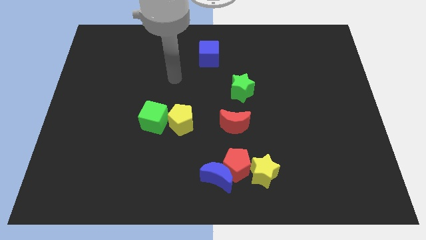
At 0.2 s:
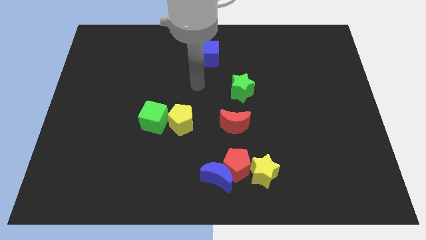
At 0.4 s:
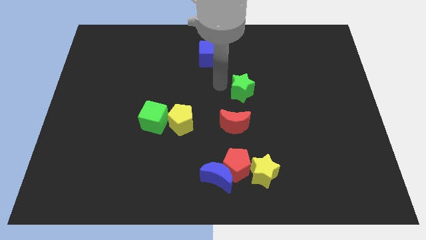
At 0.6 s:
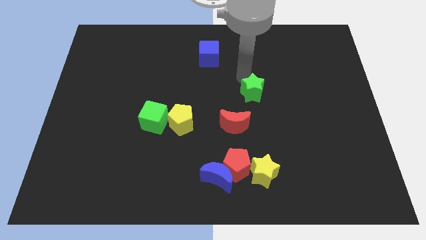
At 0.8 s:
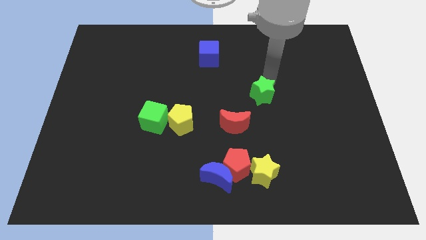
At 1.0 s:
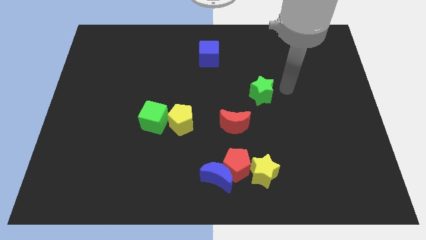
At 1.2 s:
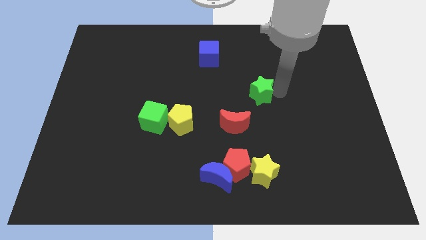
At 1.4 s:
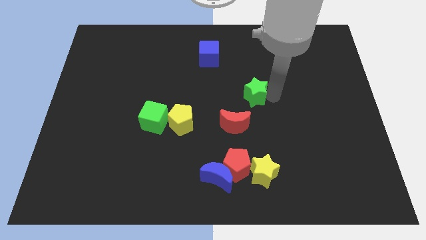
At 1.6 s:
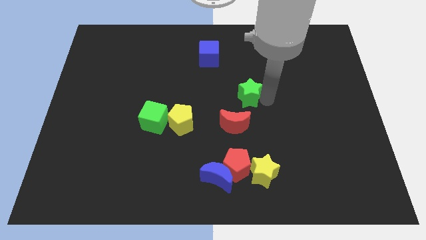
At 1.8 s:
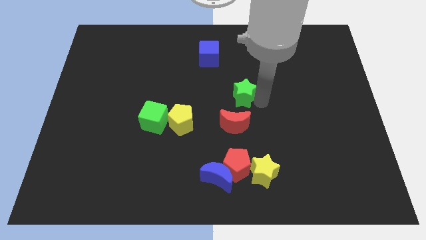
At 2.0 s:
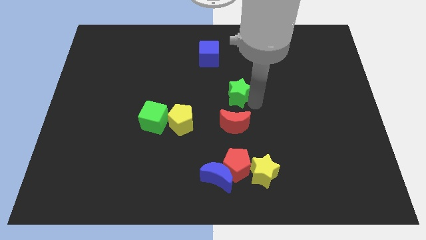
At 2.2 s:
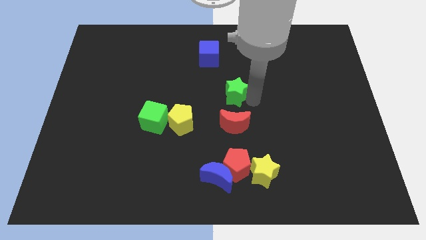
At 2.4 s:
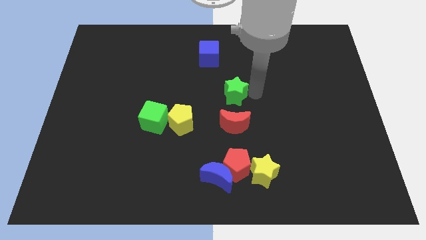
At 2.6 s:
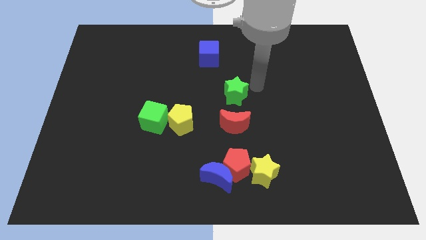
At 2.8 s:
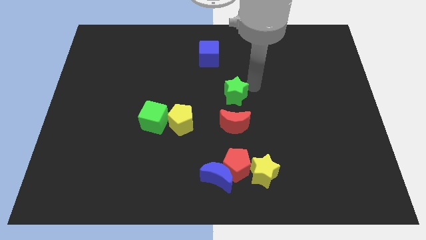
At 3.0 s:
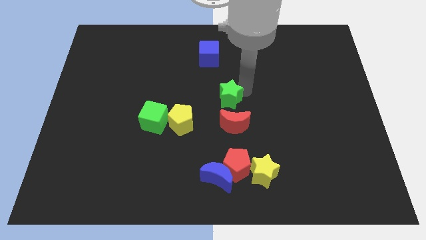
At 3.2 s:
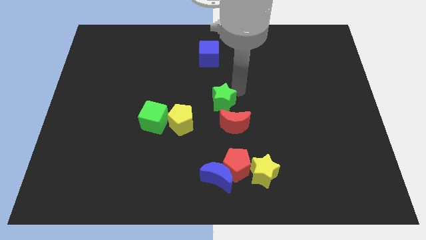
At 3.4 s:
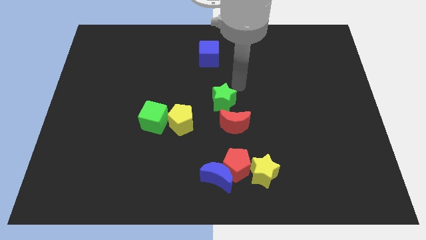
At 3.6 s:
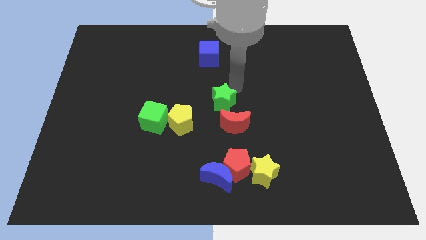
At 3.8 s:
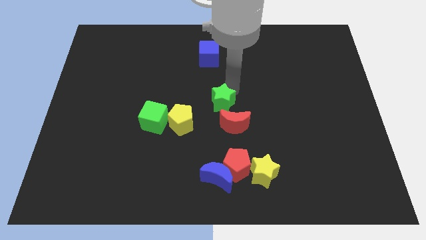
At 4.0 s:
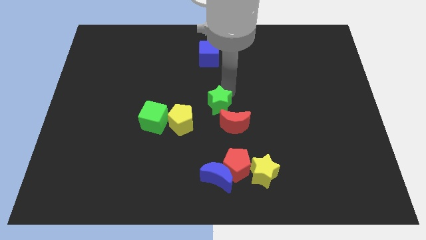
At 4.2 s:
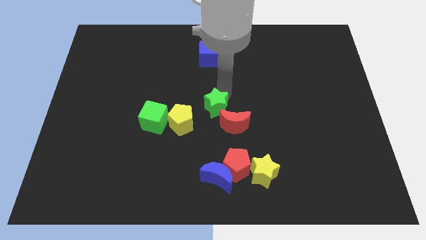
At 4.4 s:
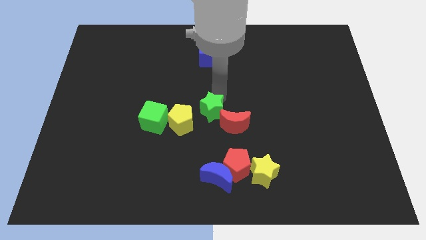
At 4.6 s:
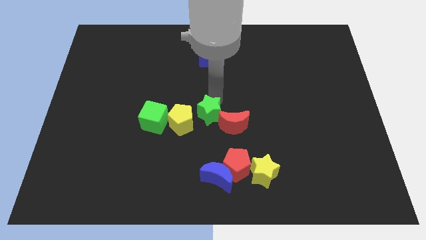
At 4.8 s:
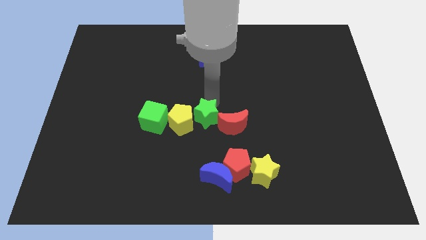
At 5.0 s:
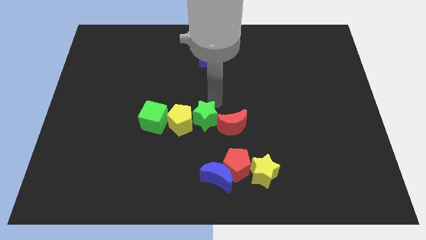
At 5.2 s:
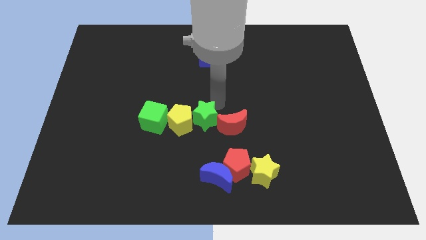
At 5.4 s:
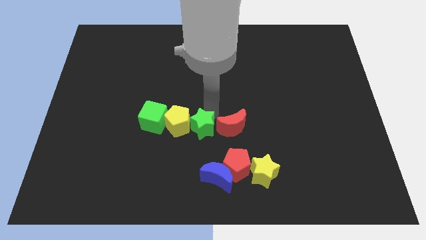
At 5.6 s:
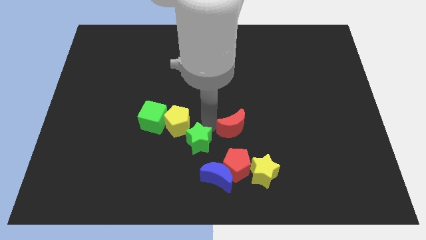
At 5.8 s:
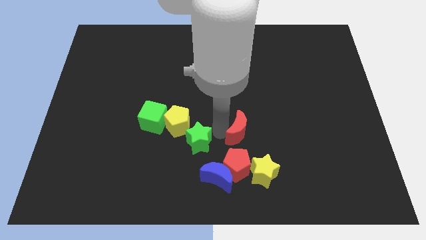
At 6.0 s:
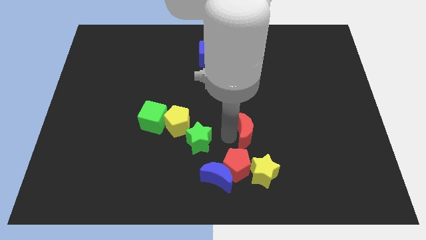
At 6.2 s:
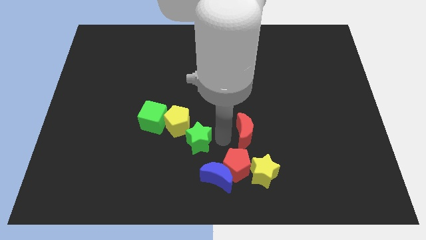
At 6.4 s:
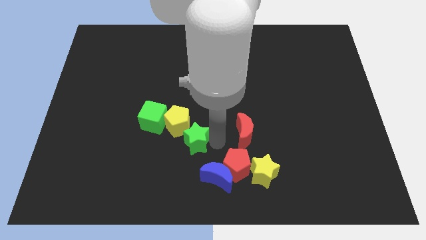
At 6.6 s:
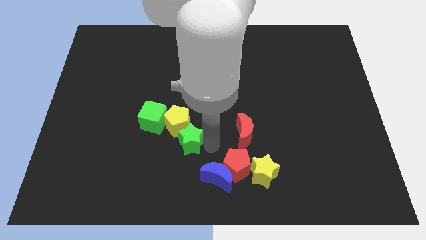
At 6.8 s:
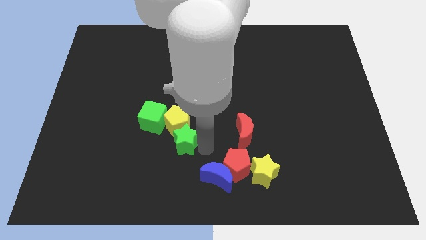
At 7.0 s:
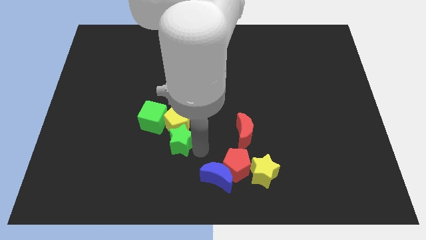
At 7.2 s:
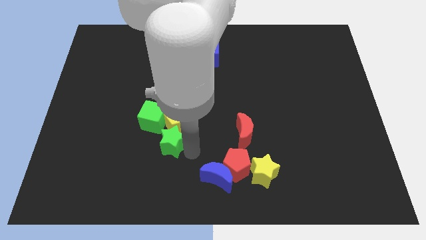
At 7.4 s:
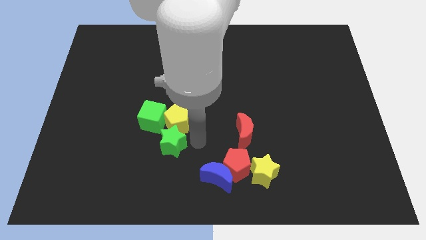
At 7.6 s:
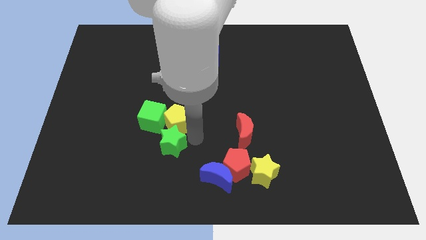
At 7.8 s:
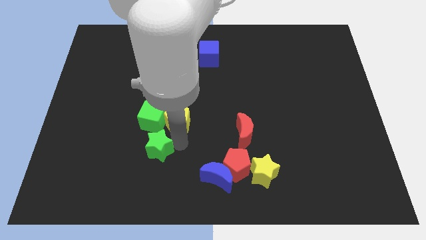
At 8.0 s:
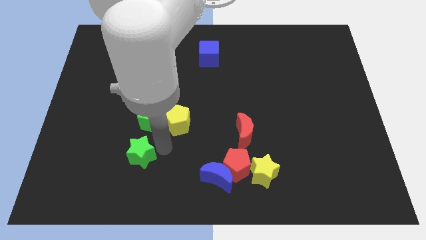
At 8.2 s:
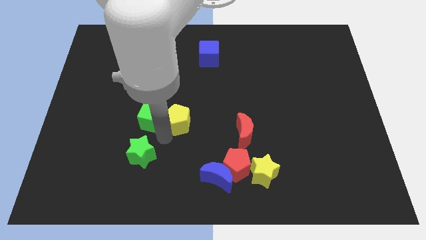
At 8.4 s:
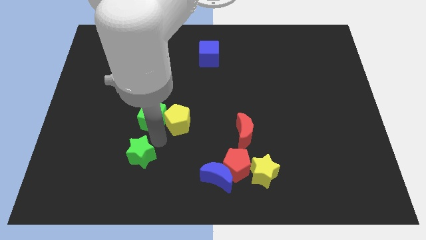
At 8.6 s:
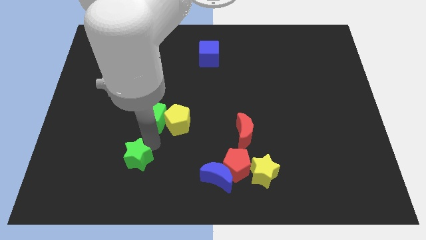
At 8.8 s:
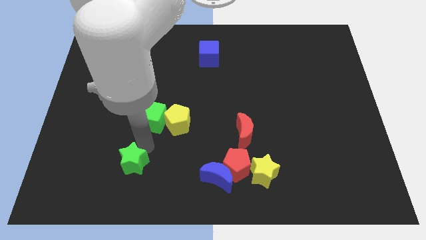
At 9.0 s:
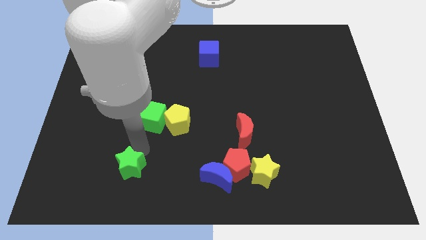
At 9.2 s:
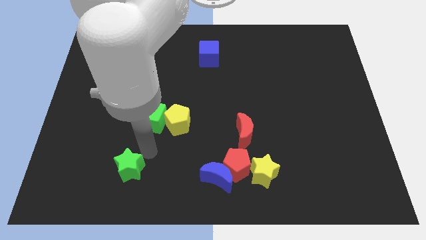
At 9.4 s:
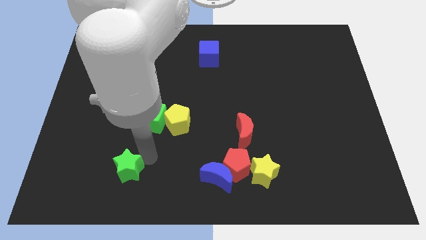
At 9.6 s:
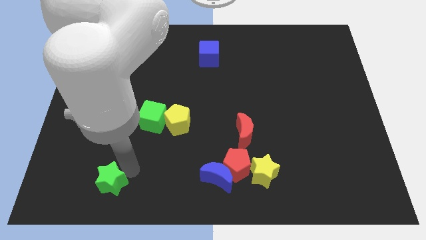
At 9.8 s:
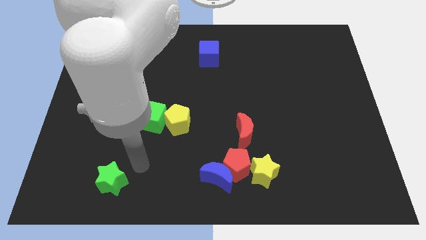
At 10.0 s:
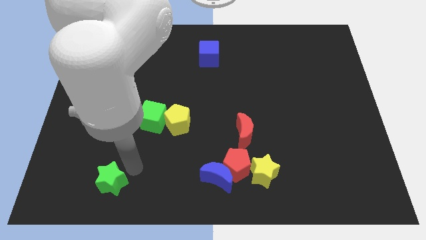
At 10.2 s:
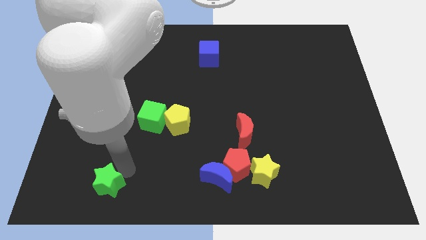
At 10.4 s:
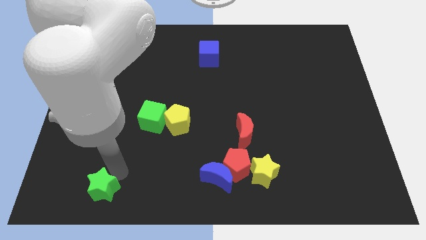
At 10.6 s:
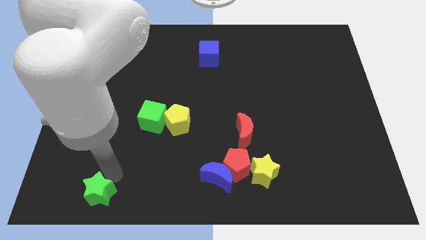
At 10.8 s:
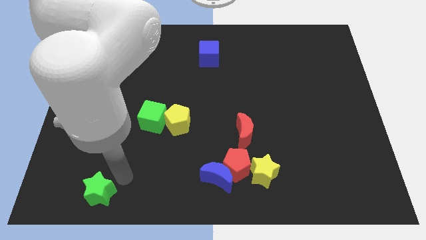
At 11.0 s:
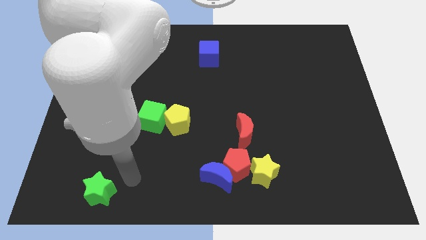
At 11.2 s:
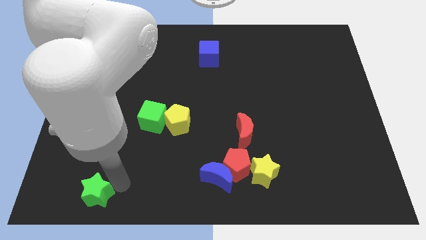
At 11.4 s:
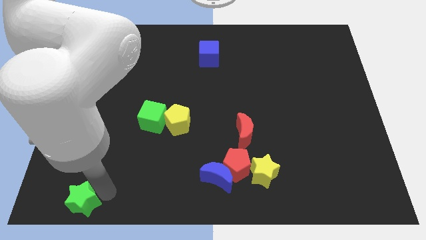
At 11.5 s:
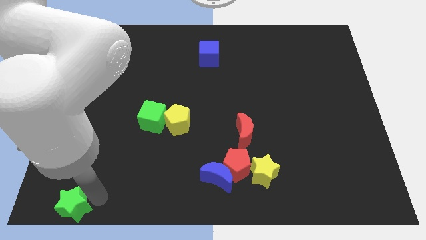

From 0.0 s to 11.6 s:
push the green star to the bottom left corner

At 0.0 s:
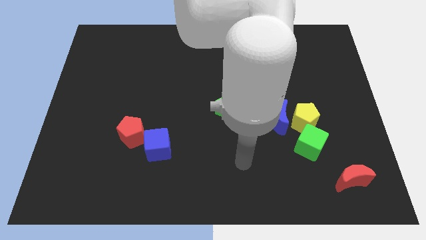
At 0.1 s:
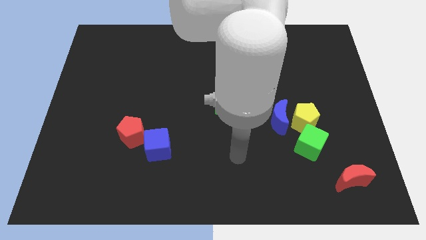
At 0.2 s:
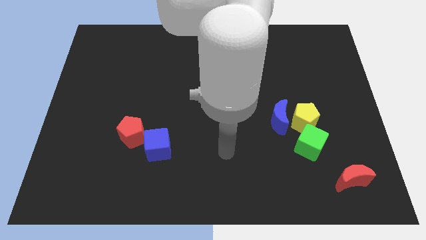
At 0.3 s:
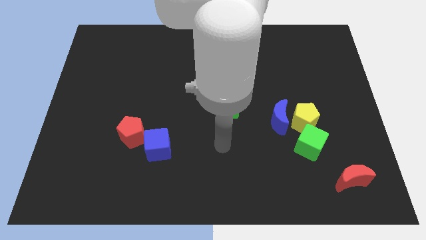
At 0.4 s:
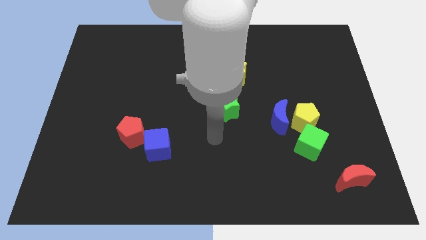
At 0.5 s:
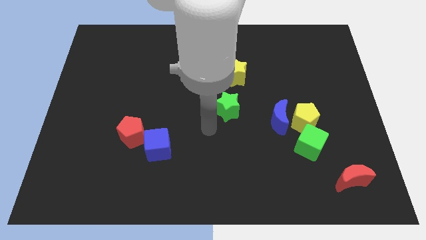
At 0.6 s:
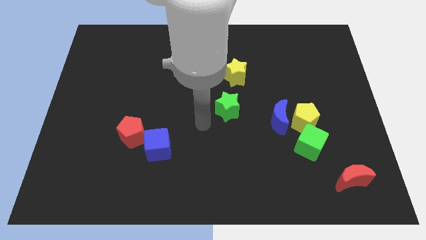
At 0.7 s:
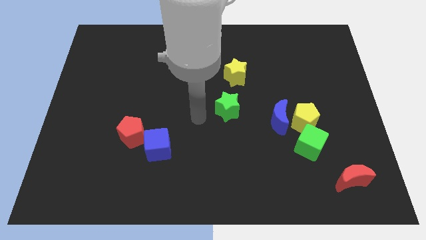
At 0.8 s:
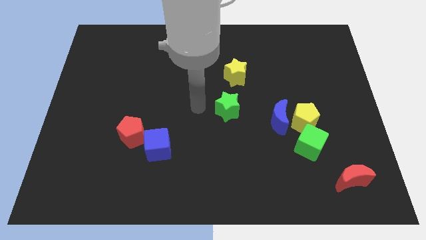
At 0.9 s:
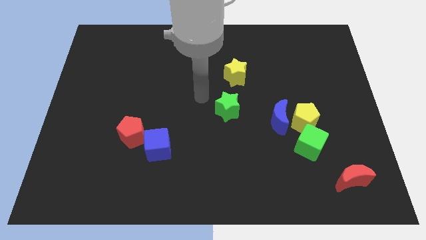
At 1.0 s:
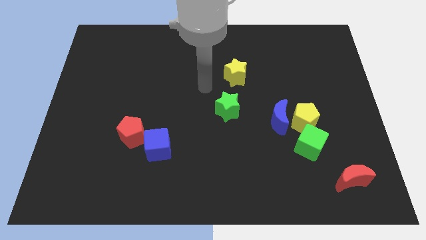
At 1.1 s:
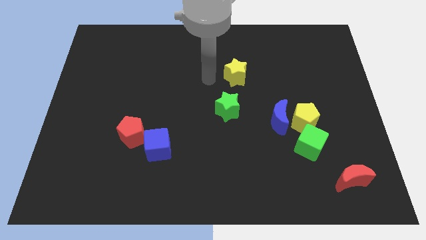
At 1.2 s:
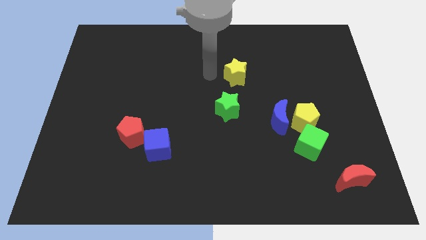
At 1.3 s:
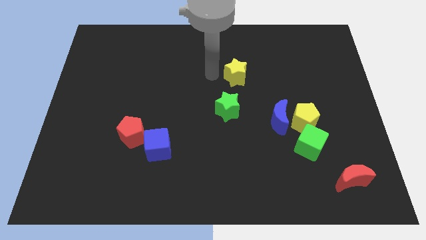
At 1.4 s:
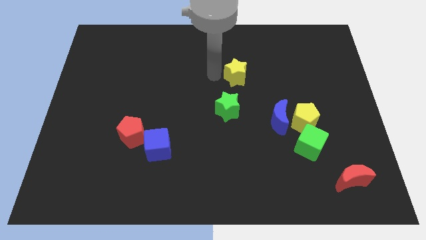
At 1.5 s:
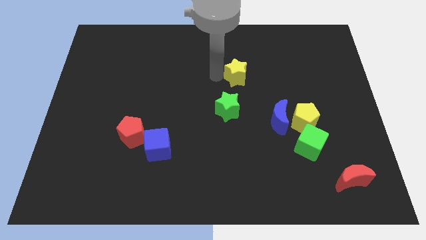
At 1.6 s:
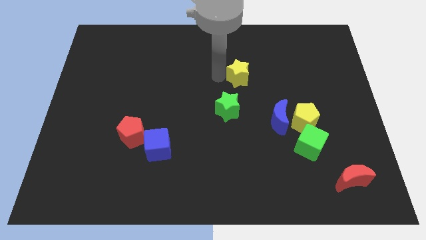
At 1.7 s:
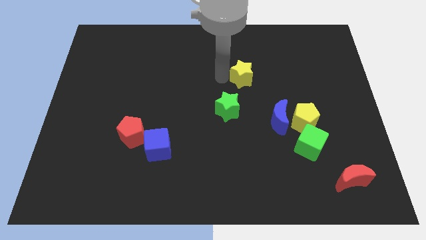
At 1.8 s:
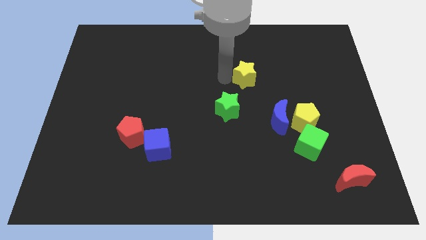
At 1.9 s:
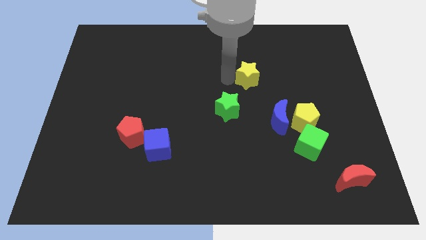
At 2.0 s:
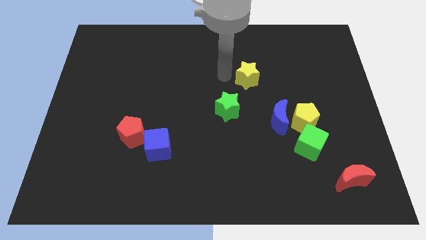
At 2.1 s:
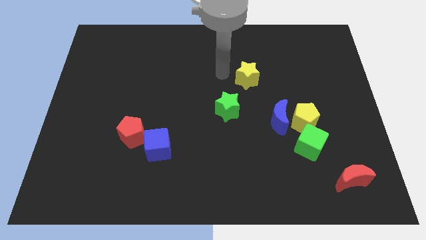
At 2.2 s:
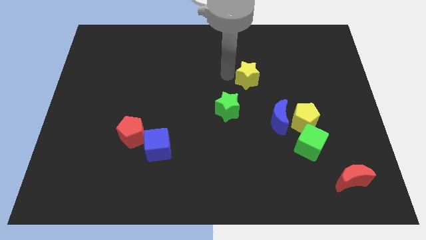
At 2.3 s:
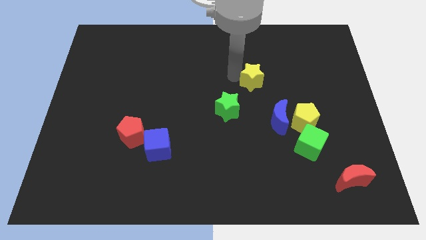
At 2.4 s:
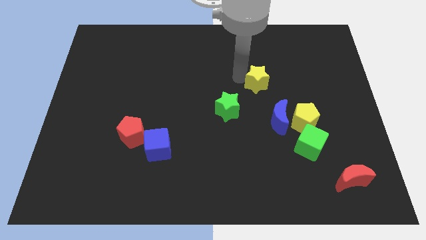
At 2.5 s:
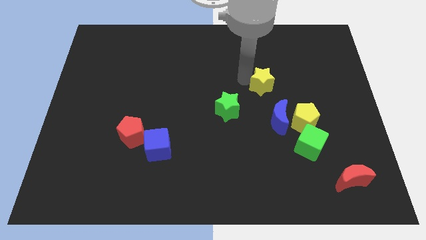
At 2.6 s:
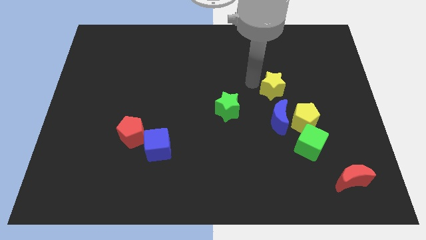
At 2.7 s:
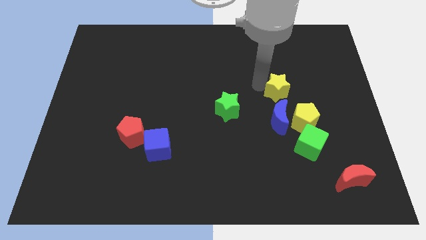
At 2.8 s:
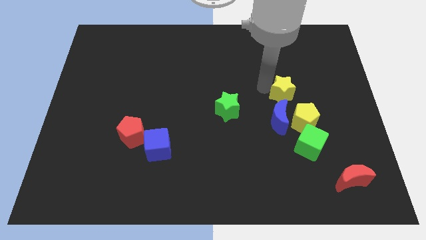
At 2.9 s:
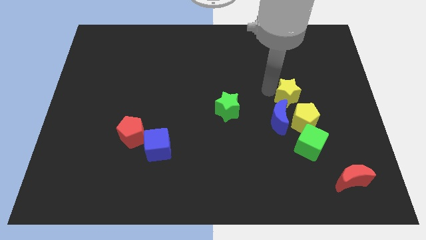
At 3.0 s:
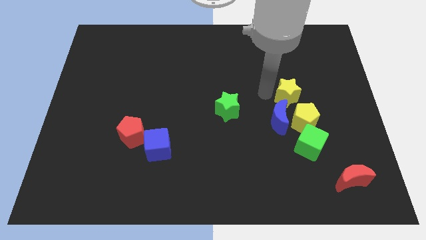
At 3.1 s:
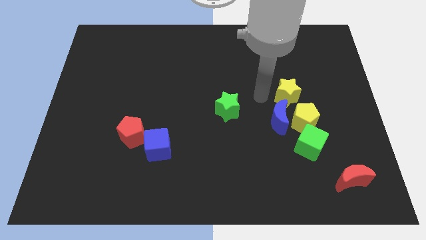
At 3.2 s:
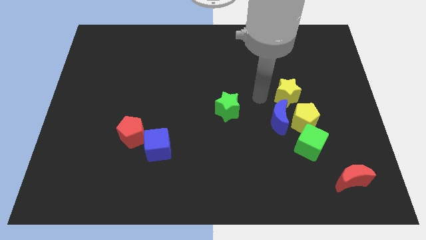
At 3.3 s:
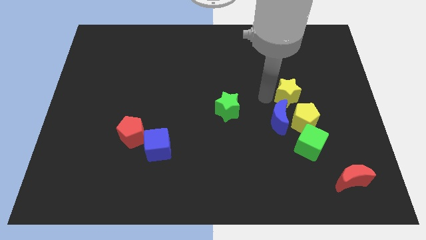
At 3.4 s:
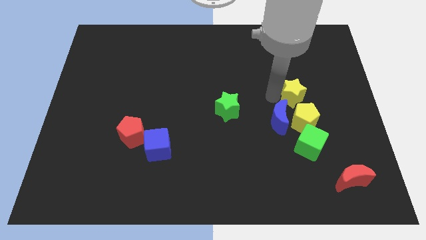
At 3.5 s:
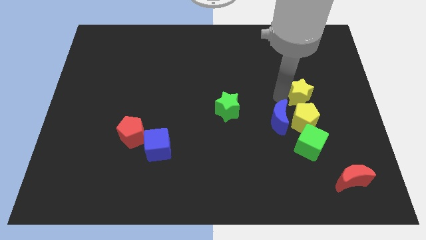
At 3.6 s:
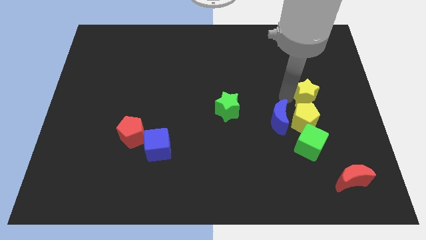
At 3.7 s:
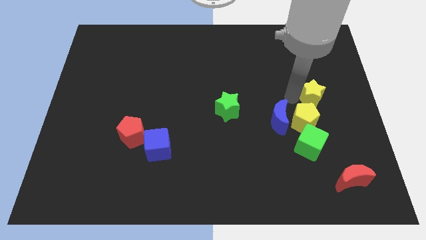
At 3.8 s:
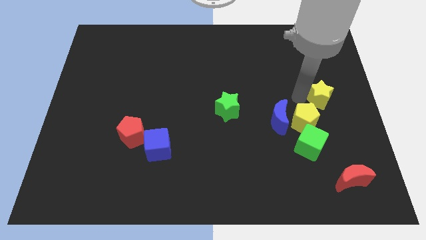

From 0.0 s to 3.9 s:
slide the yellow star to the center right
